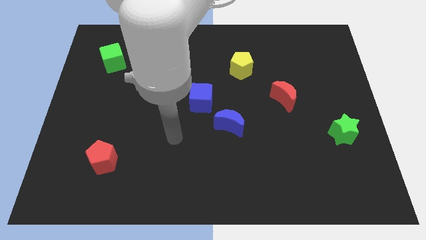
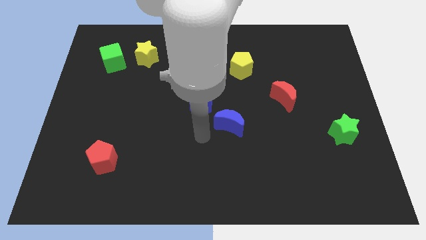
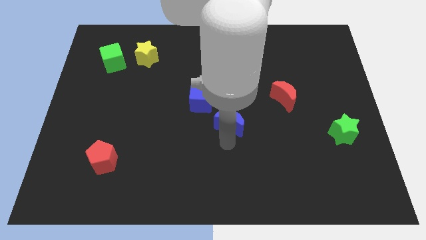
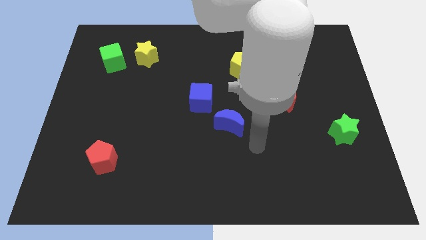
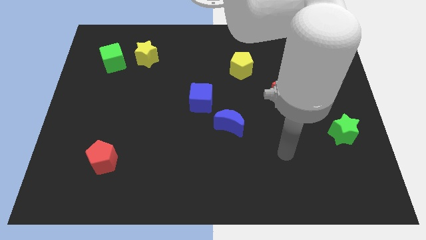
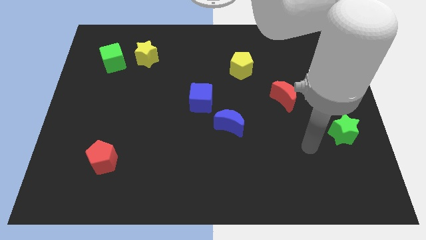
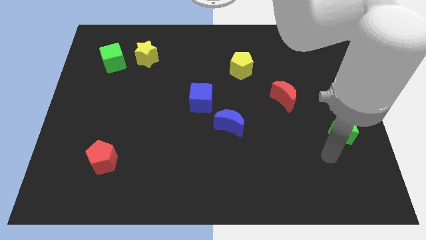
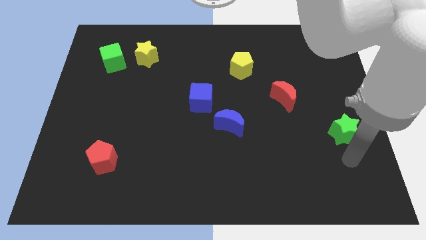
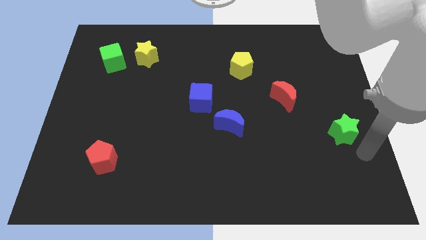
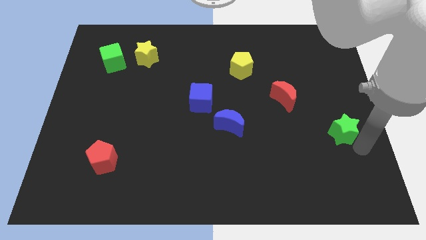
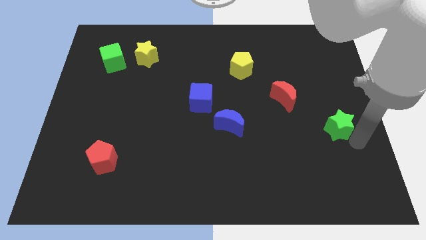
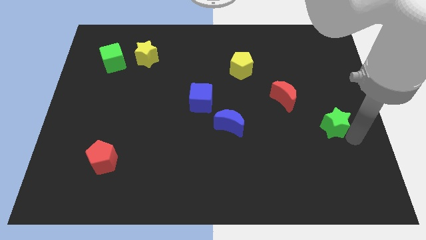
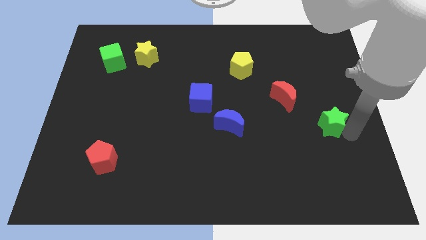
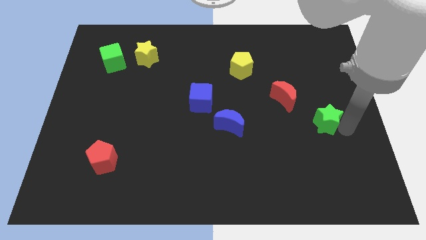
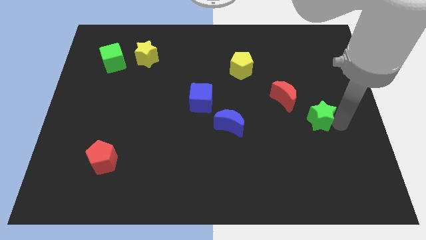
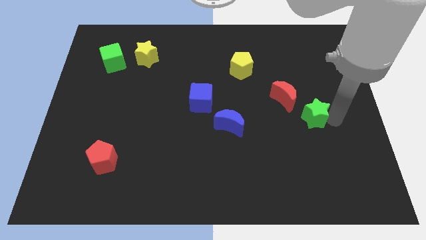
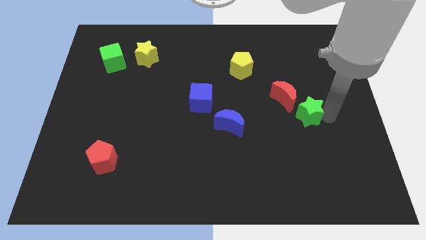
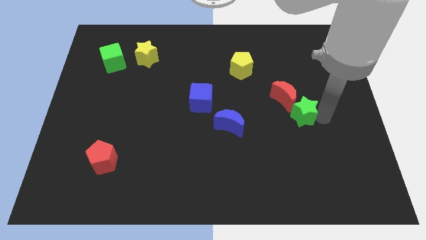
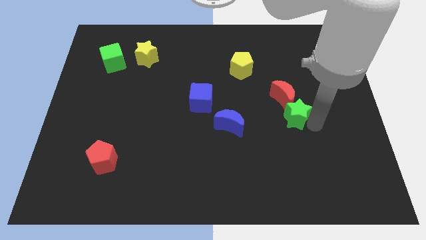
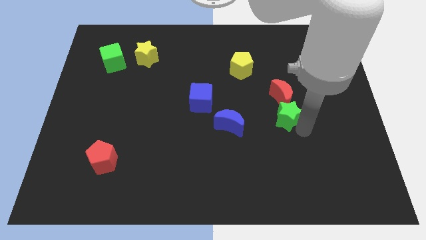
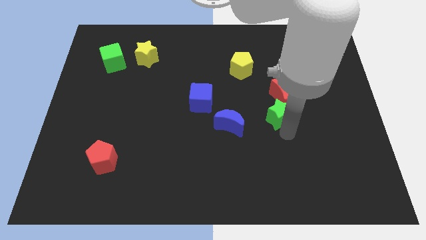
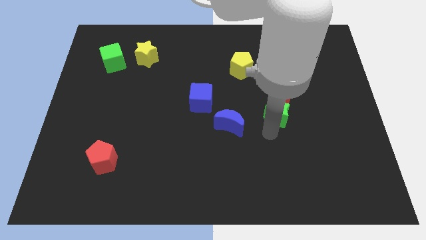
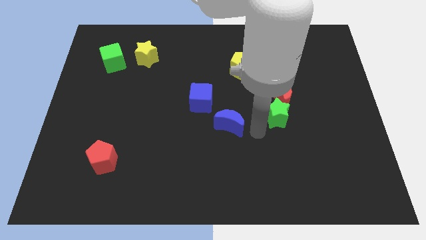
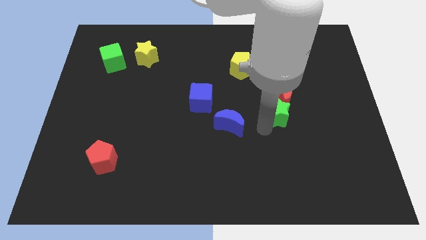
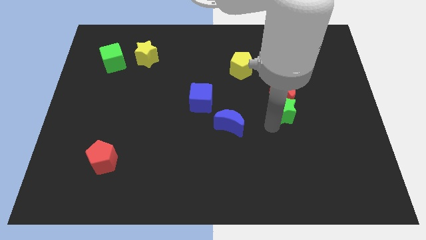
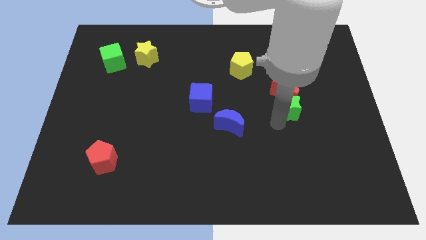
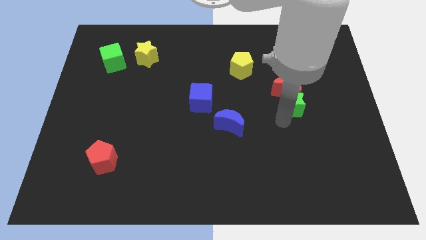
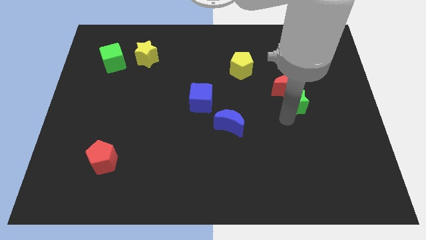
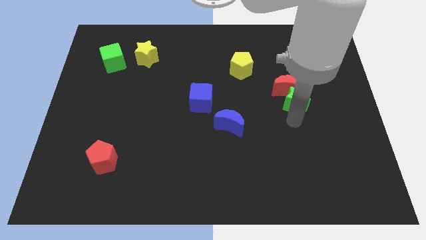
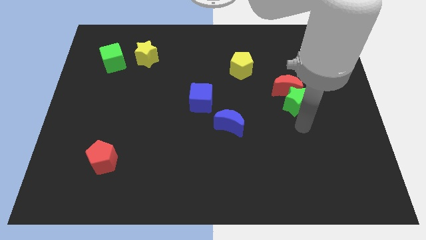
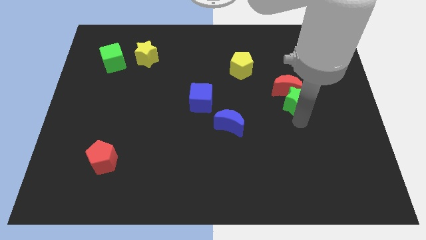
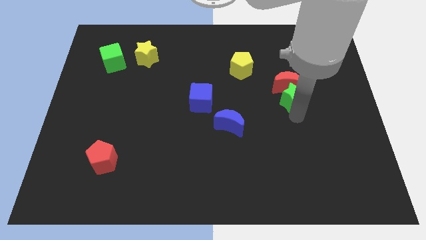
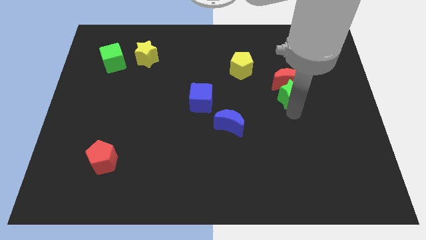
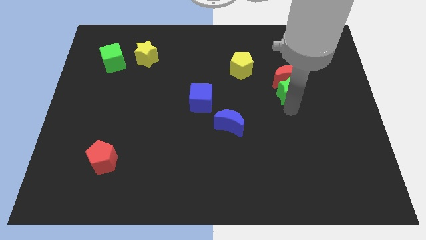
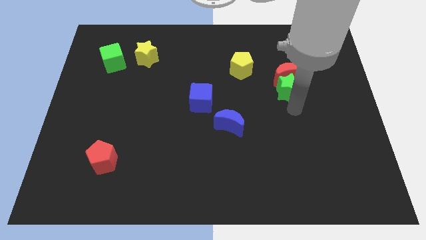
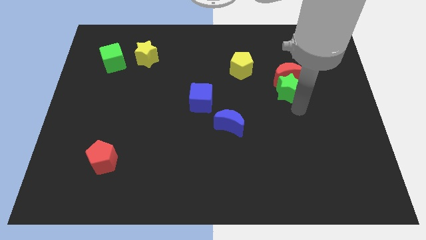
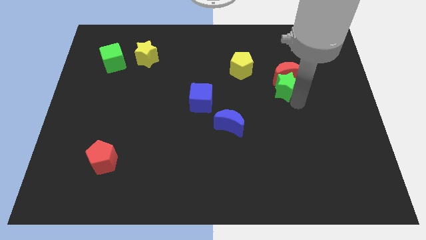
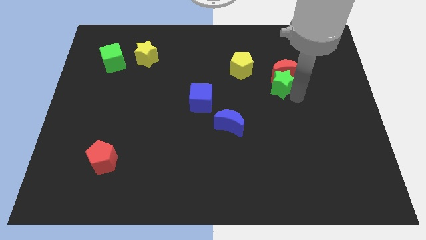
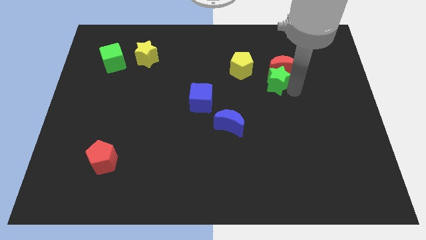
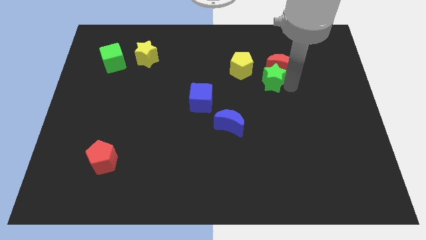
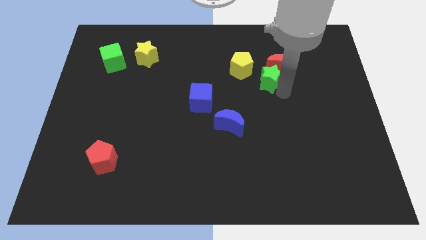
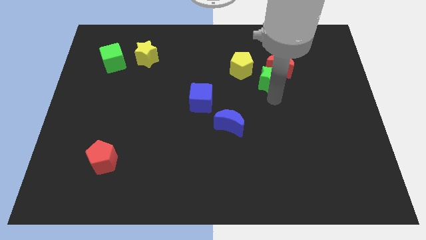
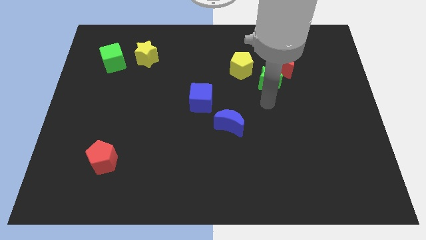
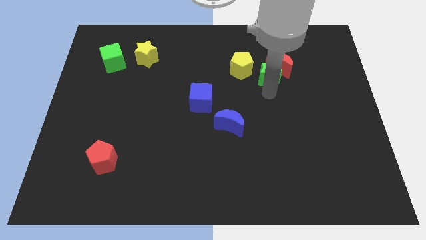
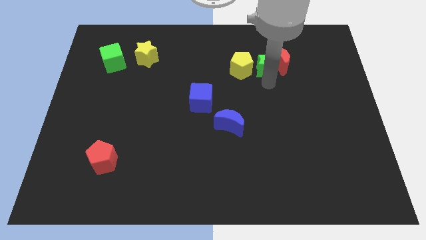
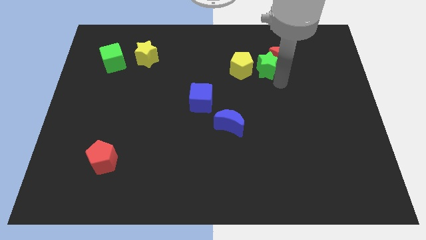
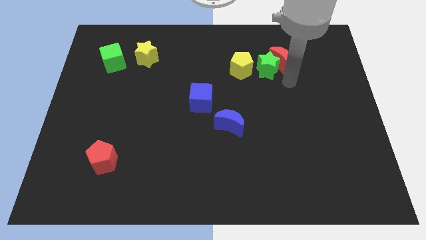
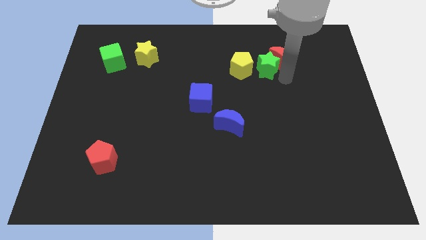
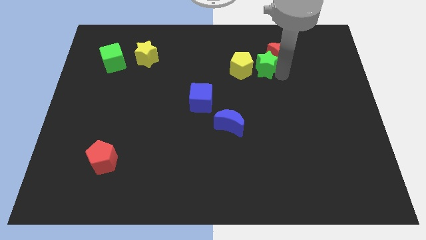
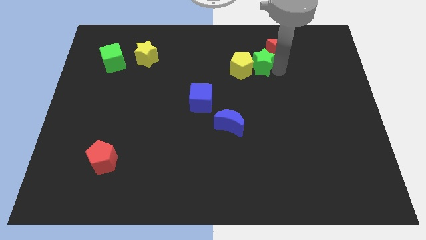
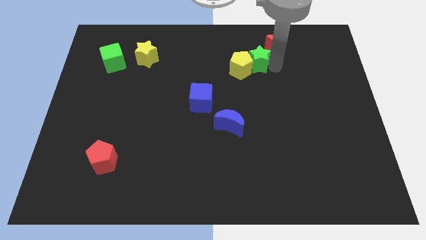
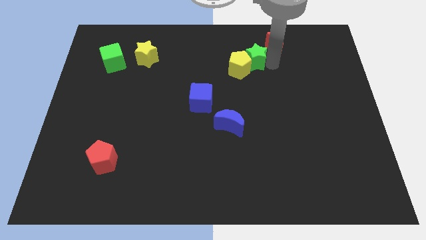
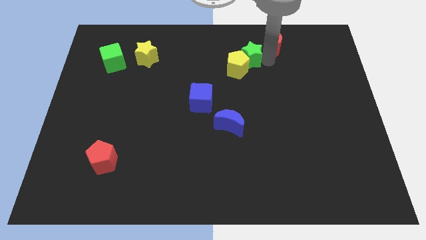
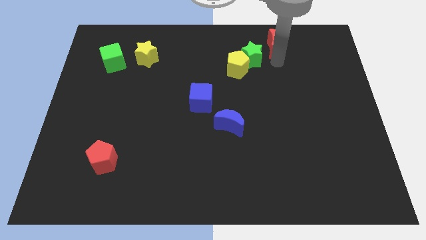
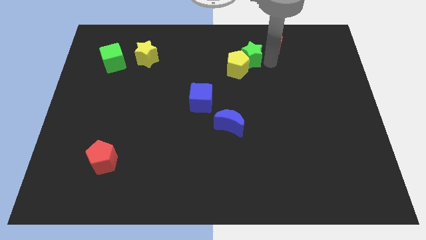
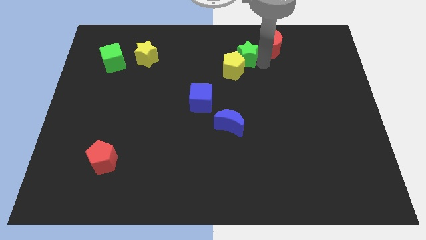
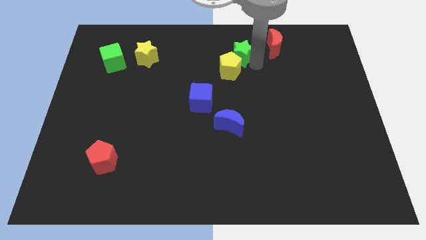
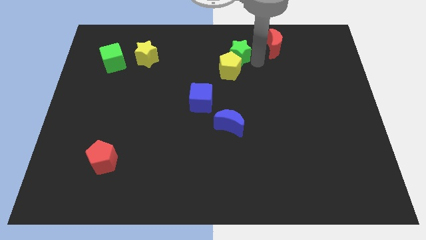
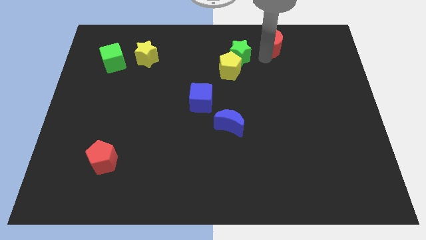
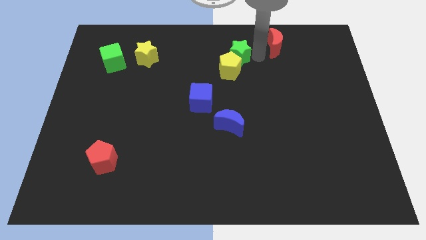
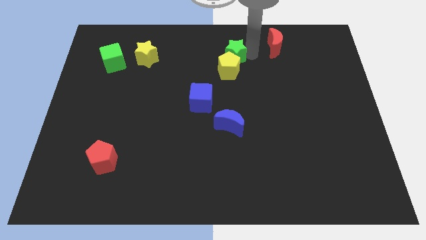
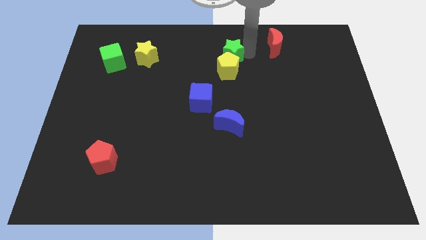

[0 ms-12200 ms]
put the green star diagonally up and to the left of the yellow pentagon
